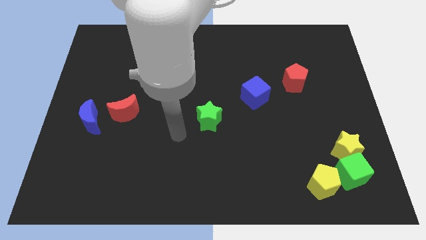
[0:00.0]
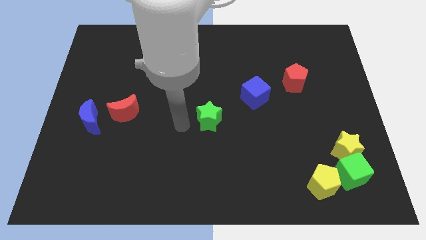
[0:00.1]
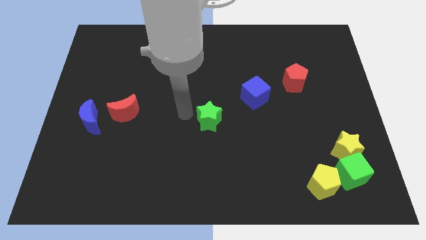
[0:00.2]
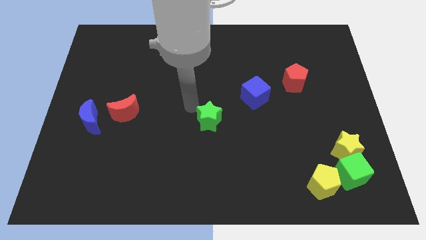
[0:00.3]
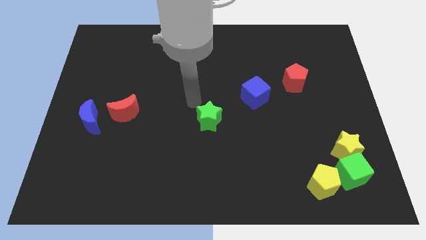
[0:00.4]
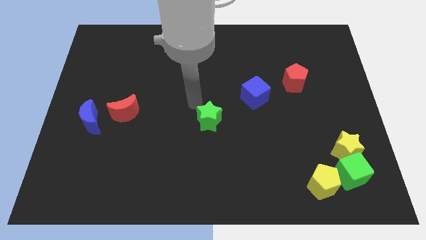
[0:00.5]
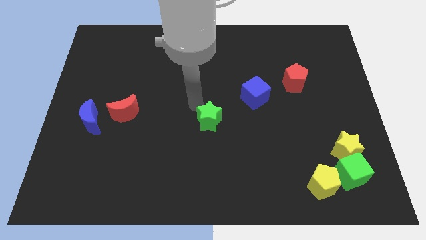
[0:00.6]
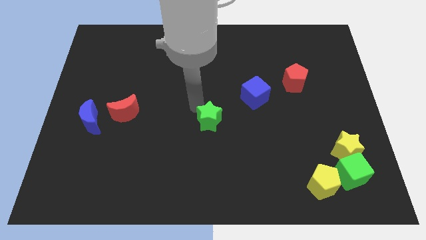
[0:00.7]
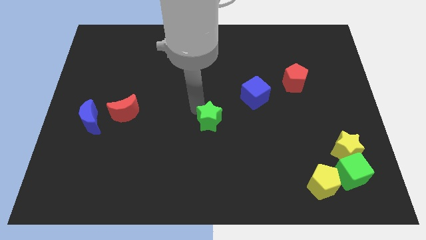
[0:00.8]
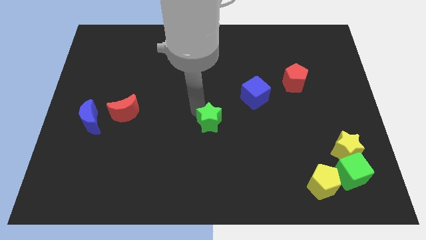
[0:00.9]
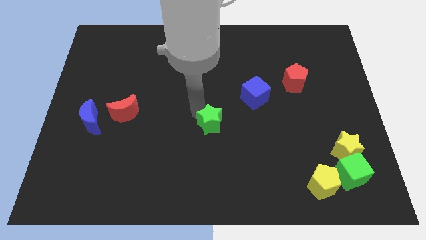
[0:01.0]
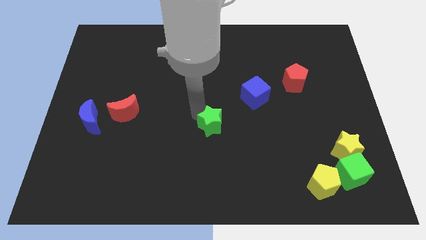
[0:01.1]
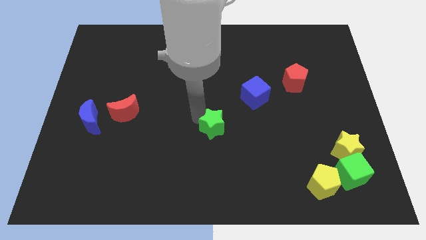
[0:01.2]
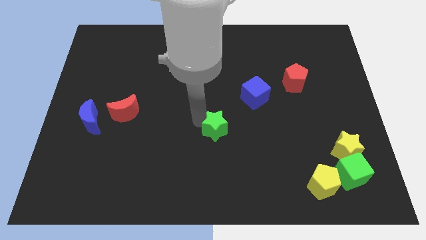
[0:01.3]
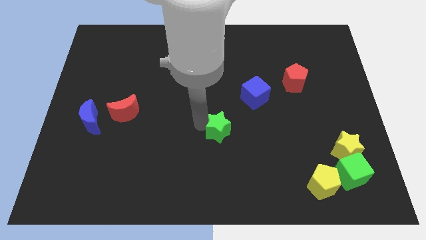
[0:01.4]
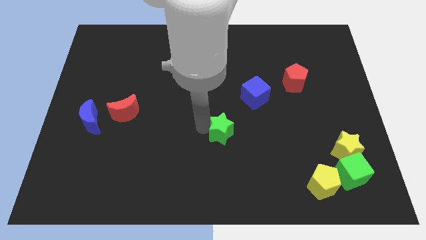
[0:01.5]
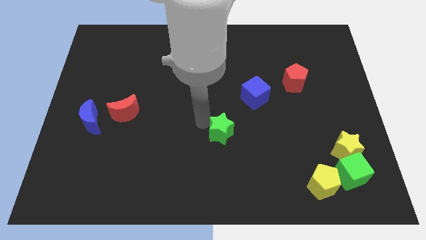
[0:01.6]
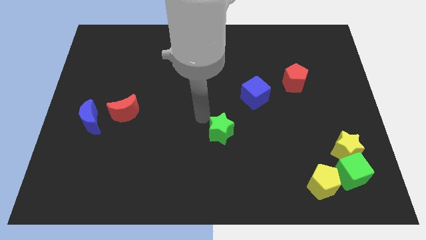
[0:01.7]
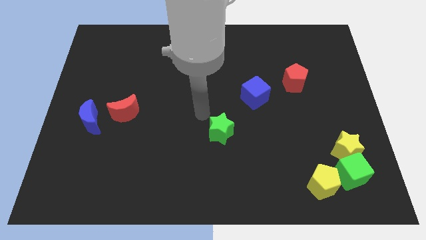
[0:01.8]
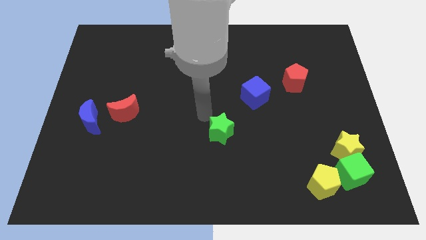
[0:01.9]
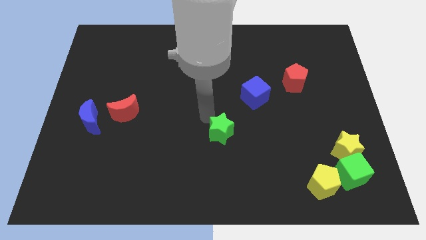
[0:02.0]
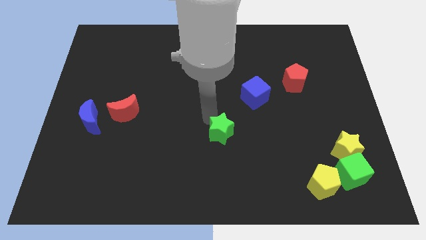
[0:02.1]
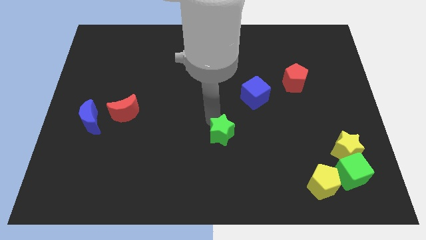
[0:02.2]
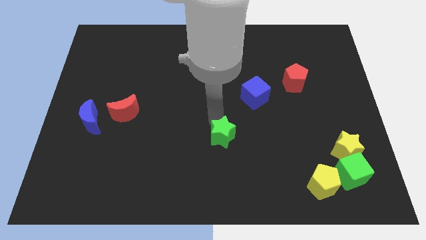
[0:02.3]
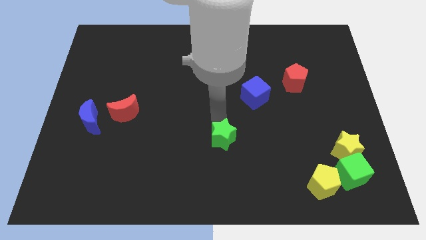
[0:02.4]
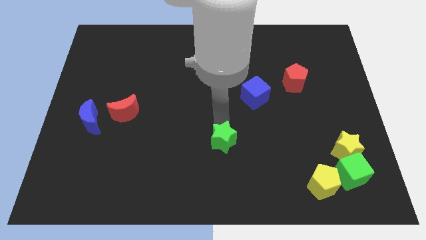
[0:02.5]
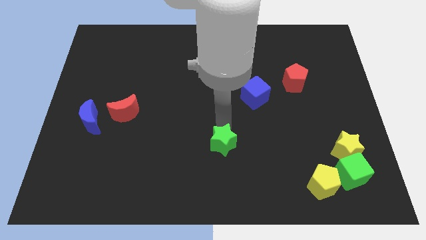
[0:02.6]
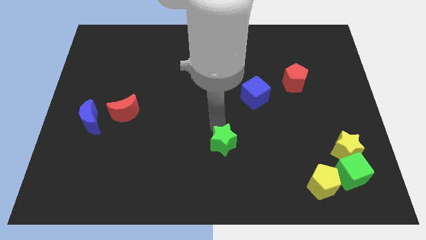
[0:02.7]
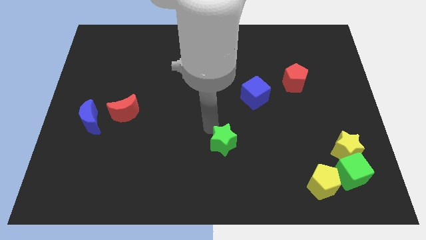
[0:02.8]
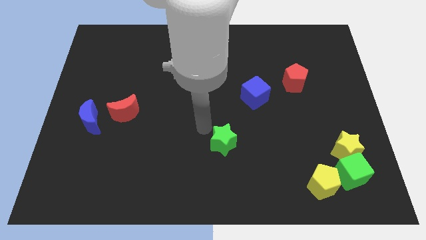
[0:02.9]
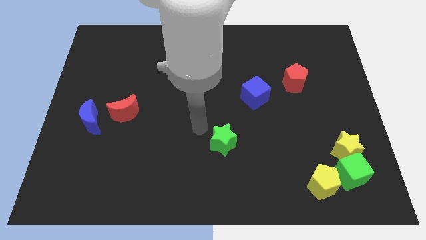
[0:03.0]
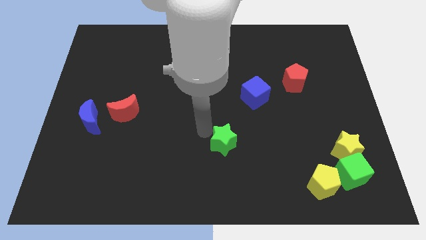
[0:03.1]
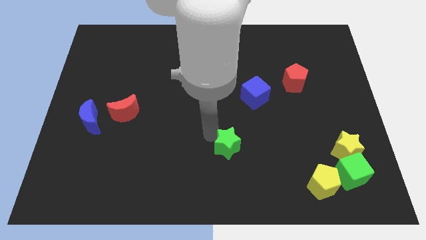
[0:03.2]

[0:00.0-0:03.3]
slightly push the green star downwards and to the right

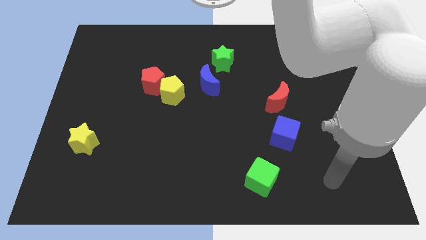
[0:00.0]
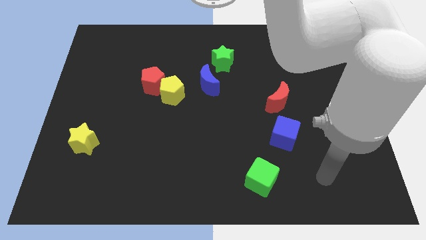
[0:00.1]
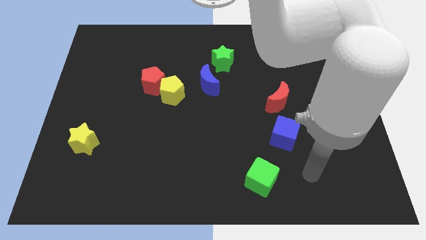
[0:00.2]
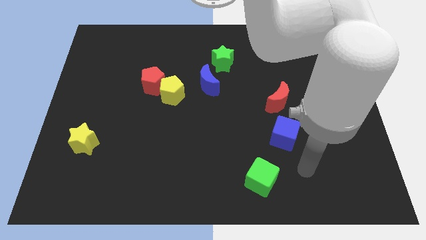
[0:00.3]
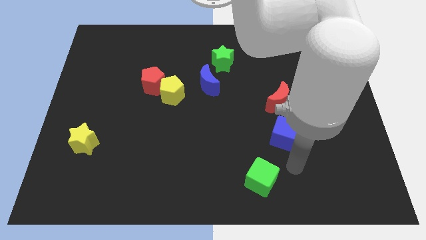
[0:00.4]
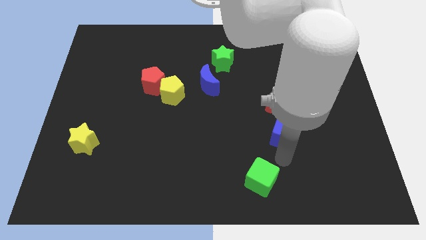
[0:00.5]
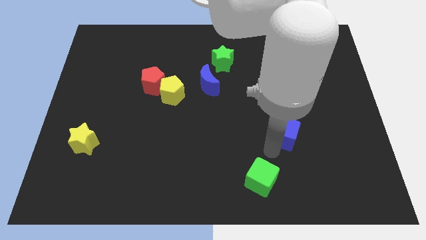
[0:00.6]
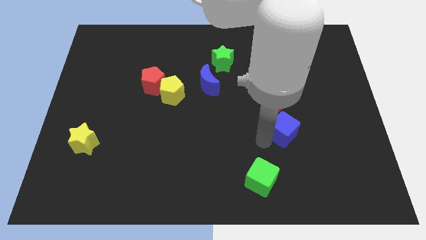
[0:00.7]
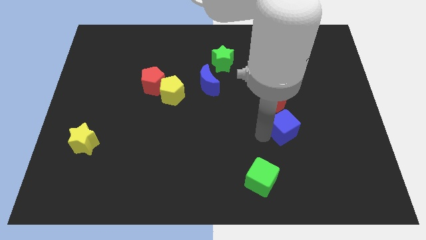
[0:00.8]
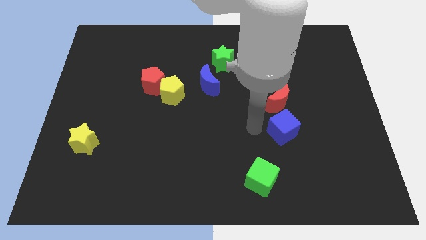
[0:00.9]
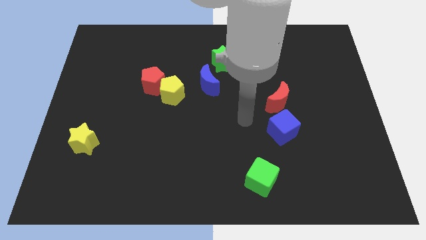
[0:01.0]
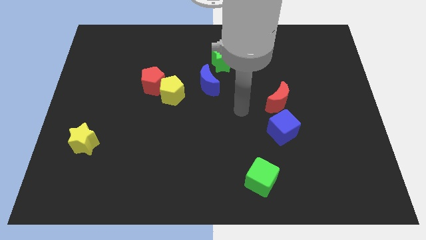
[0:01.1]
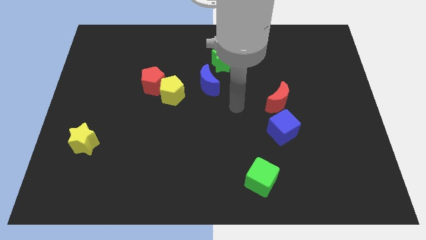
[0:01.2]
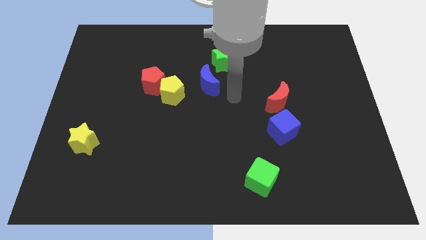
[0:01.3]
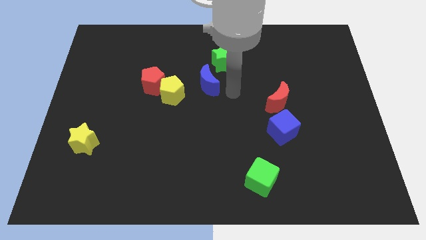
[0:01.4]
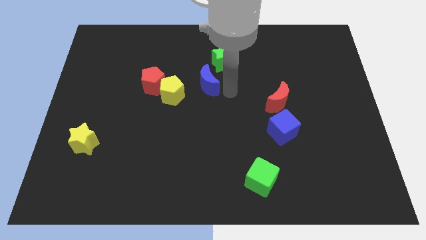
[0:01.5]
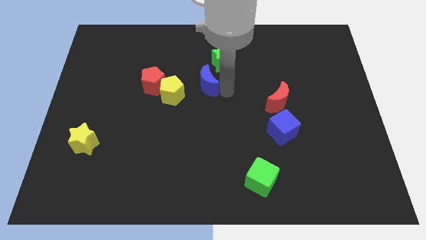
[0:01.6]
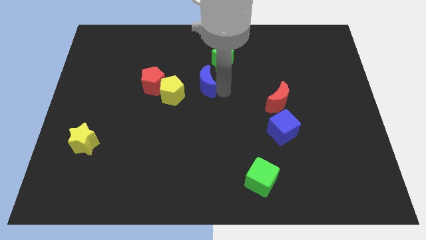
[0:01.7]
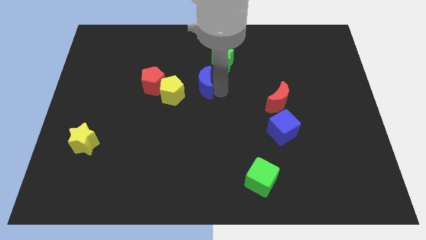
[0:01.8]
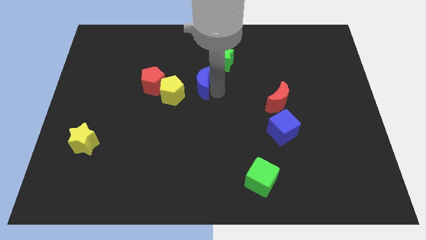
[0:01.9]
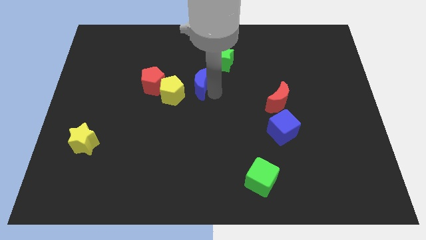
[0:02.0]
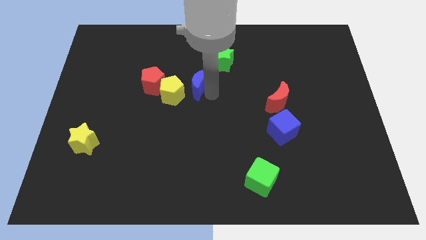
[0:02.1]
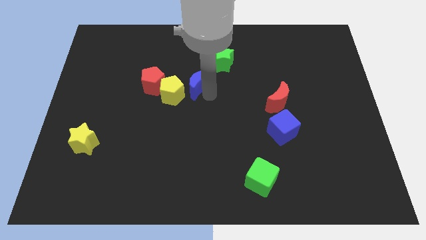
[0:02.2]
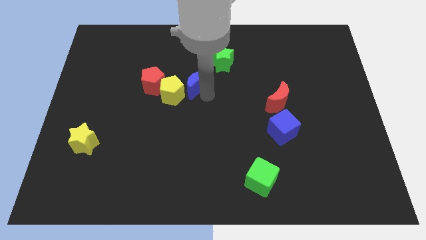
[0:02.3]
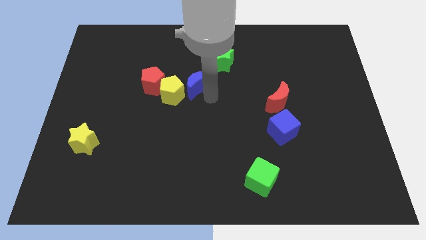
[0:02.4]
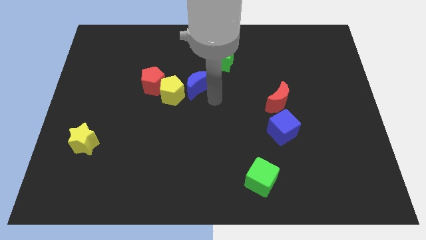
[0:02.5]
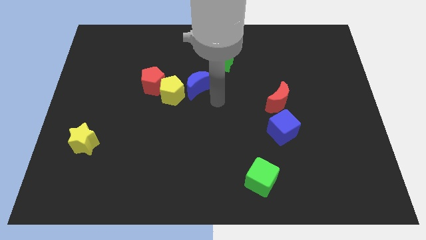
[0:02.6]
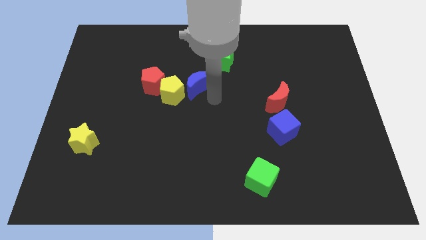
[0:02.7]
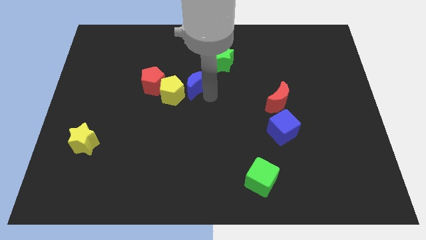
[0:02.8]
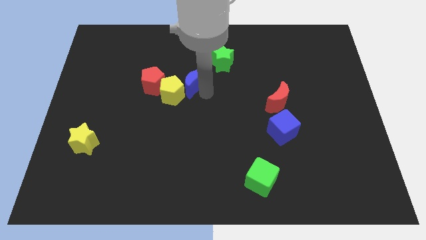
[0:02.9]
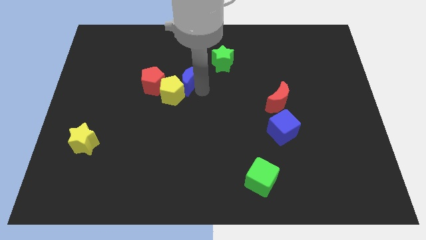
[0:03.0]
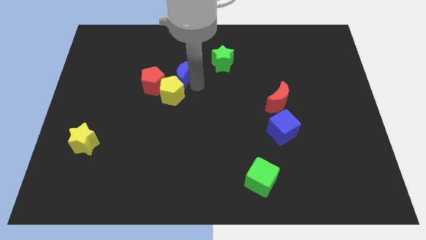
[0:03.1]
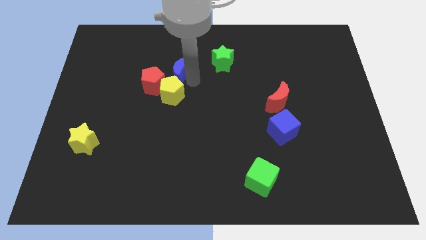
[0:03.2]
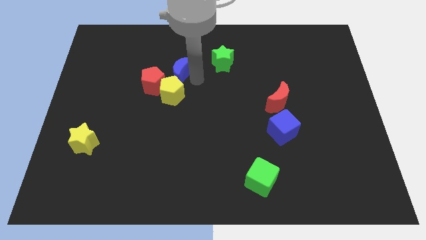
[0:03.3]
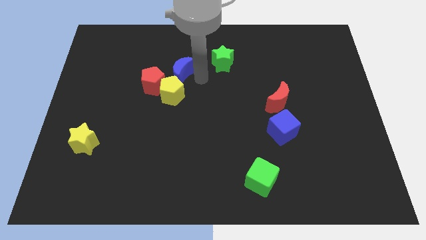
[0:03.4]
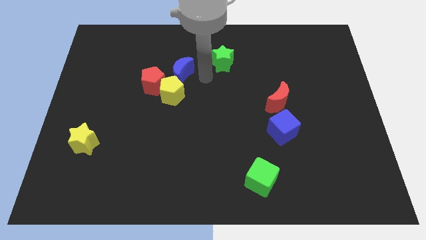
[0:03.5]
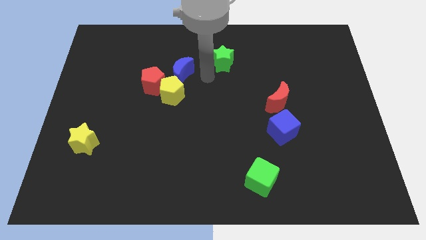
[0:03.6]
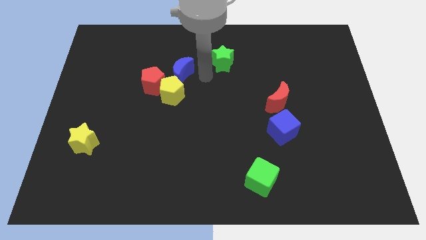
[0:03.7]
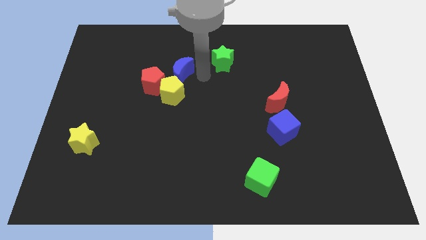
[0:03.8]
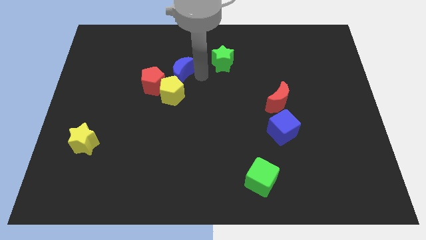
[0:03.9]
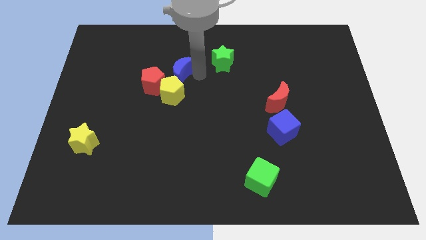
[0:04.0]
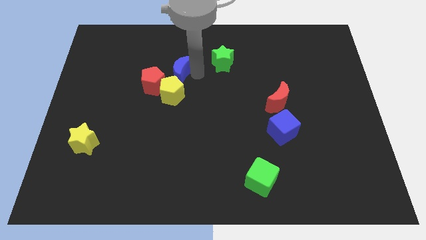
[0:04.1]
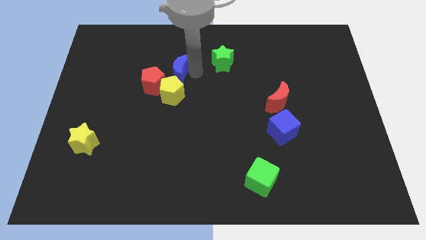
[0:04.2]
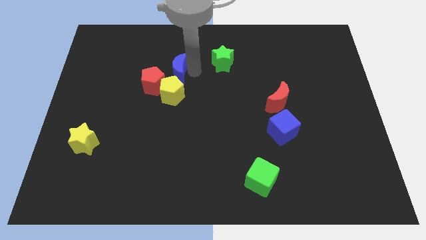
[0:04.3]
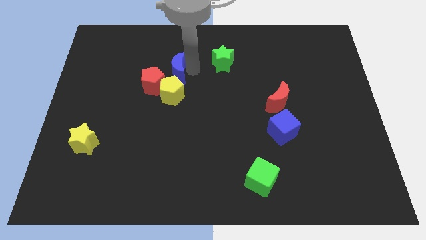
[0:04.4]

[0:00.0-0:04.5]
slide the blue moon to the left a little

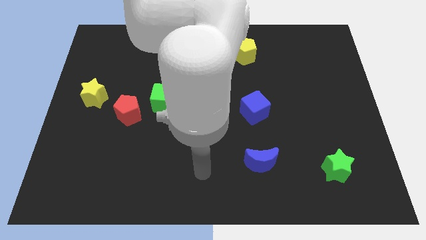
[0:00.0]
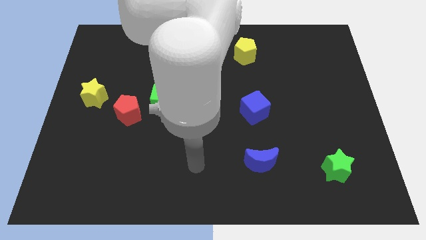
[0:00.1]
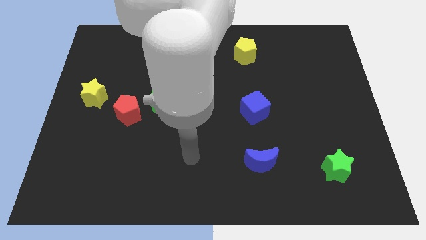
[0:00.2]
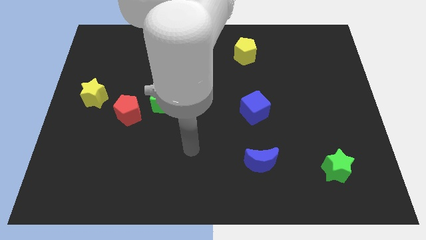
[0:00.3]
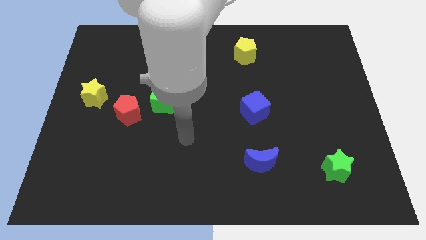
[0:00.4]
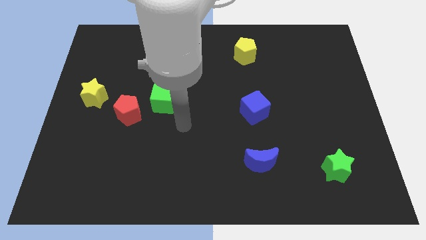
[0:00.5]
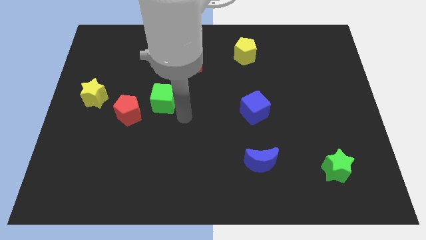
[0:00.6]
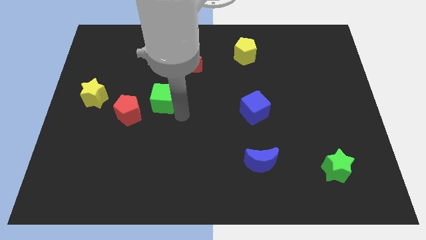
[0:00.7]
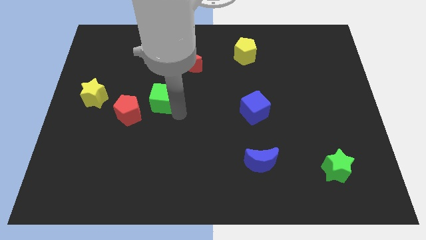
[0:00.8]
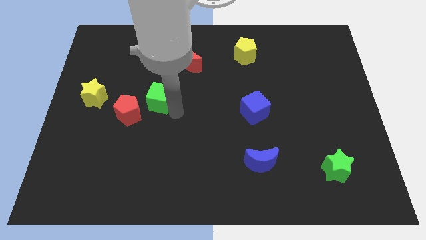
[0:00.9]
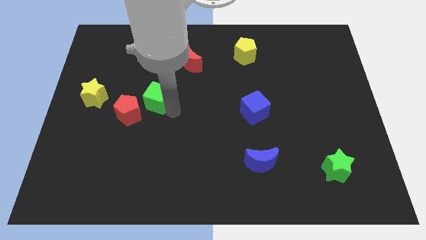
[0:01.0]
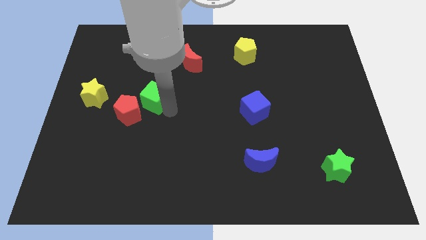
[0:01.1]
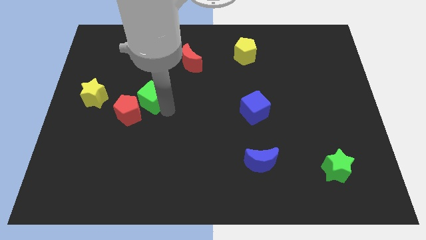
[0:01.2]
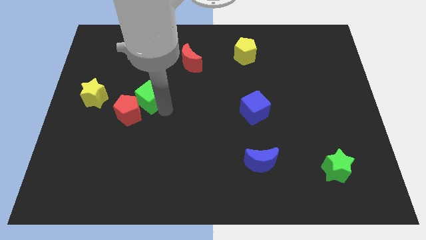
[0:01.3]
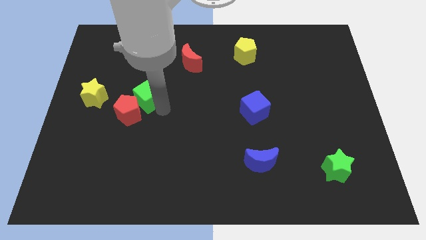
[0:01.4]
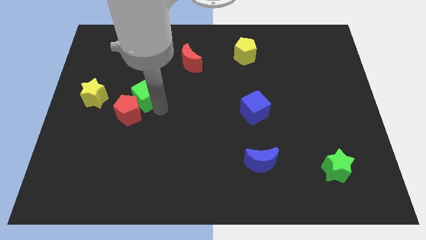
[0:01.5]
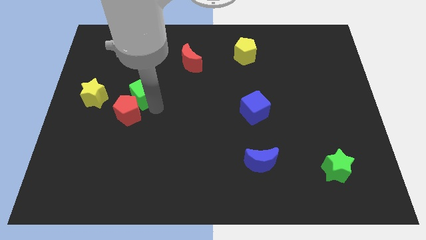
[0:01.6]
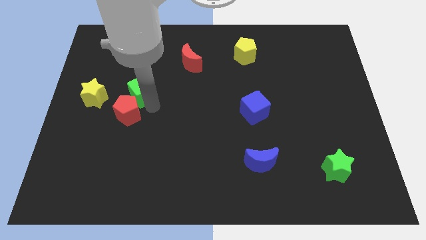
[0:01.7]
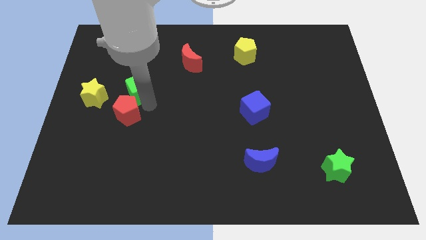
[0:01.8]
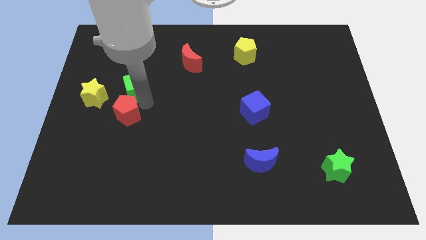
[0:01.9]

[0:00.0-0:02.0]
slightly slide the green cube upwards and left diagonally
